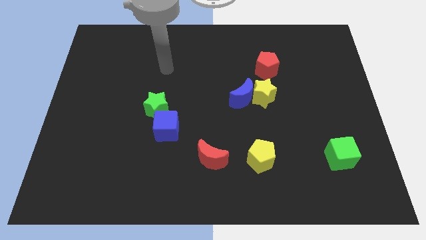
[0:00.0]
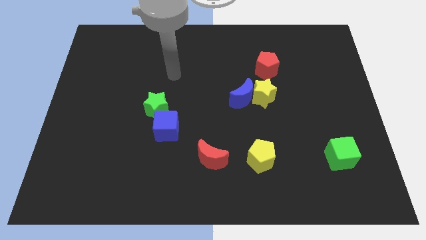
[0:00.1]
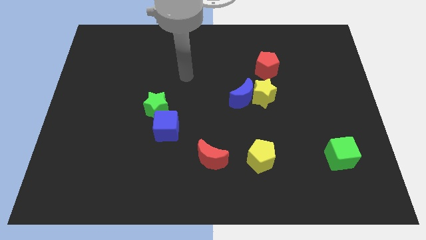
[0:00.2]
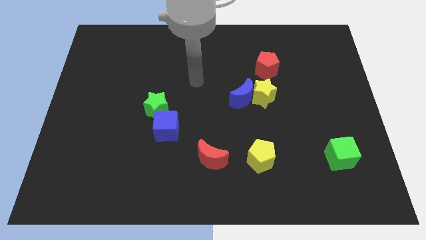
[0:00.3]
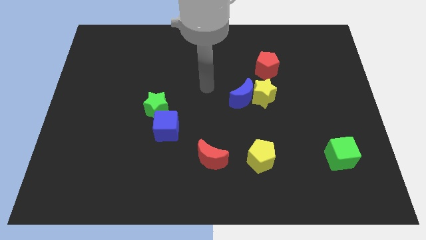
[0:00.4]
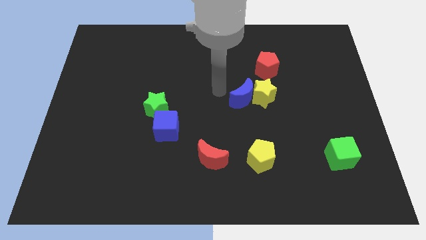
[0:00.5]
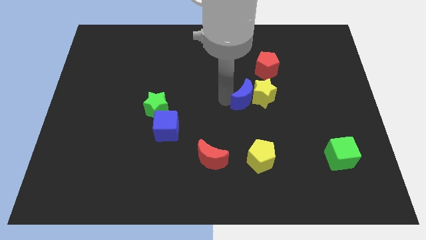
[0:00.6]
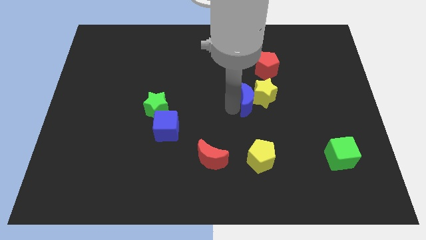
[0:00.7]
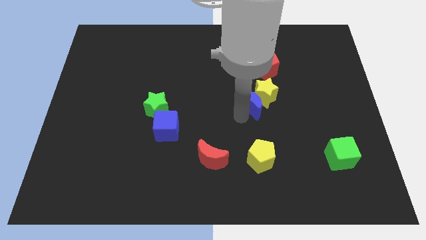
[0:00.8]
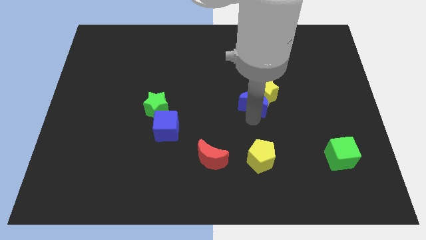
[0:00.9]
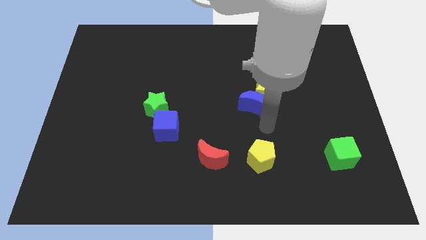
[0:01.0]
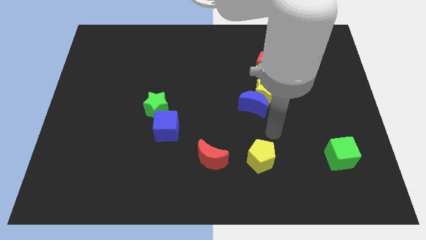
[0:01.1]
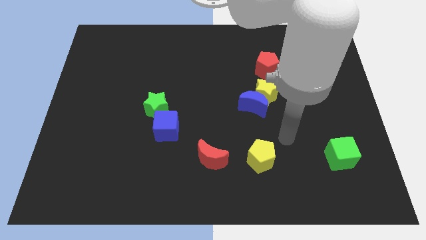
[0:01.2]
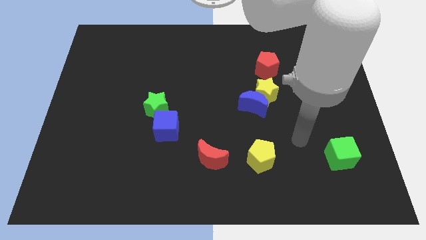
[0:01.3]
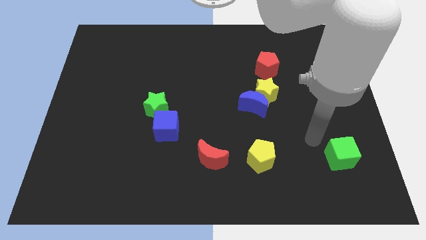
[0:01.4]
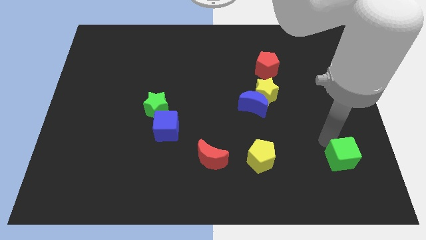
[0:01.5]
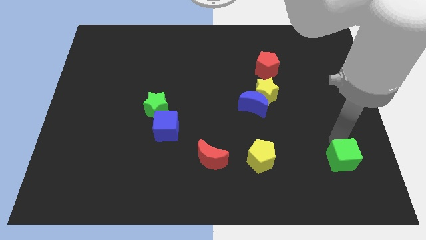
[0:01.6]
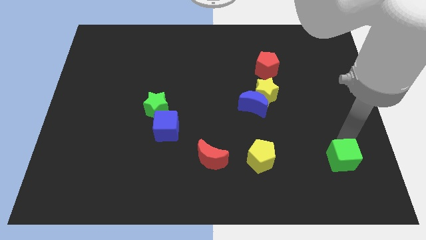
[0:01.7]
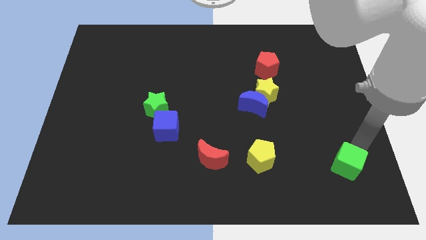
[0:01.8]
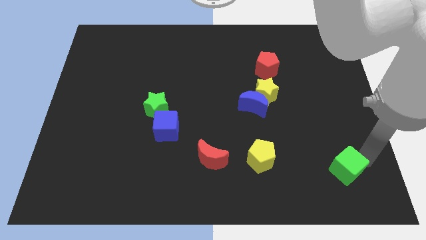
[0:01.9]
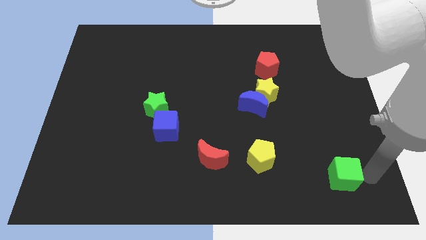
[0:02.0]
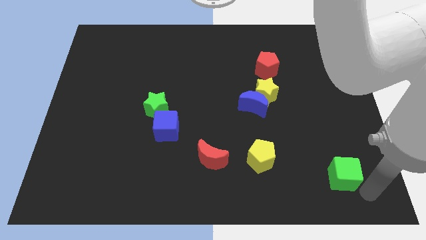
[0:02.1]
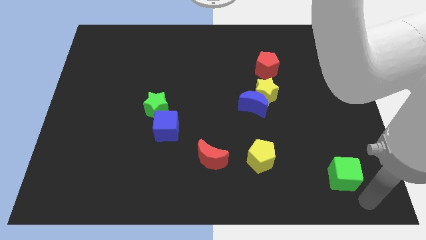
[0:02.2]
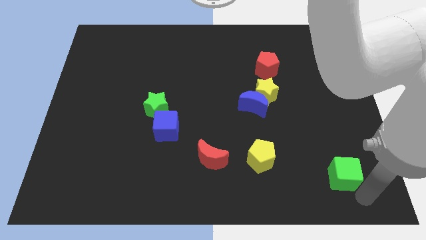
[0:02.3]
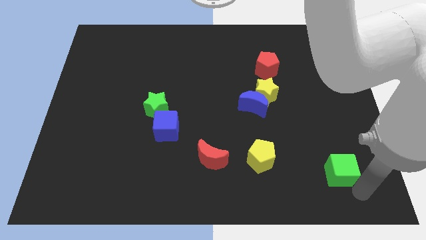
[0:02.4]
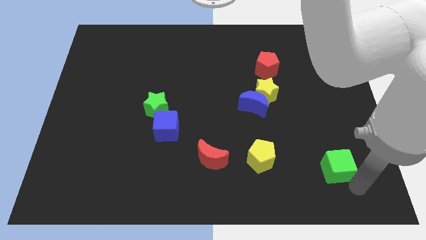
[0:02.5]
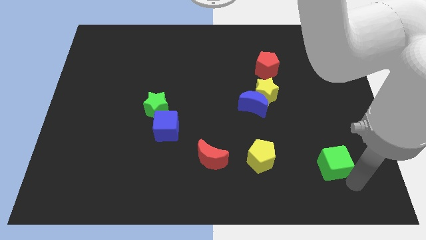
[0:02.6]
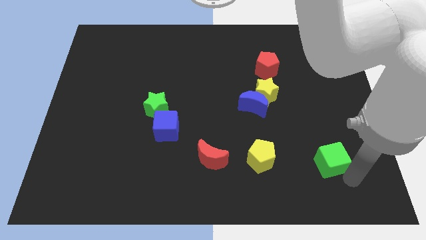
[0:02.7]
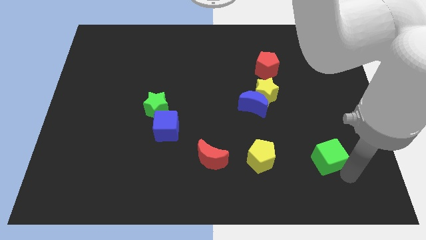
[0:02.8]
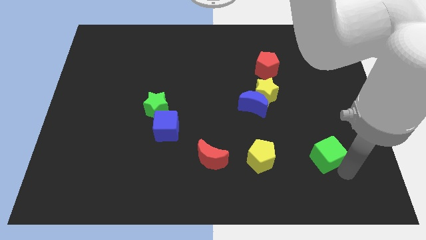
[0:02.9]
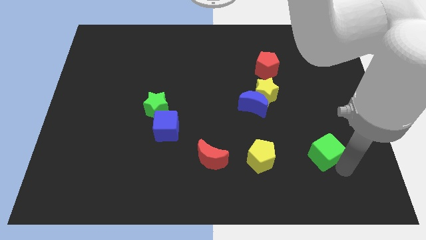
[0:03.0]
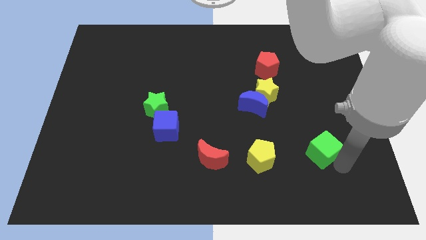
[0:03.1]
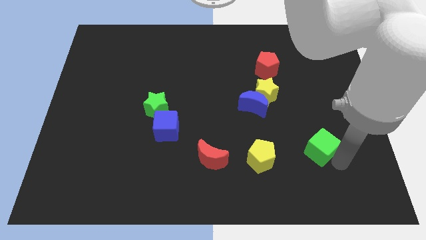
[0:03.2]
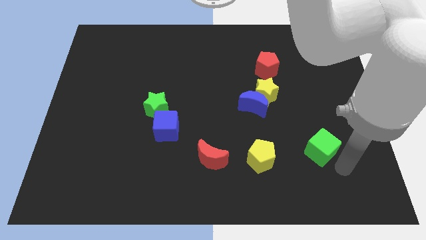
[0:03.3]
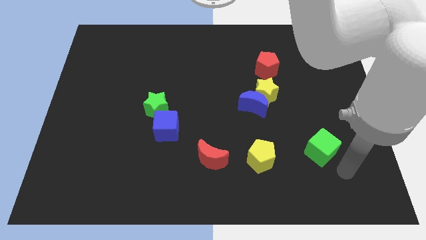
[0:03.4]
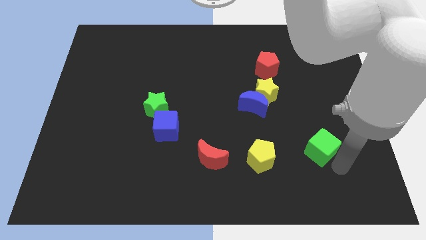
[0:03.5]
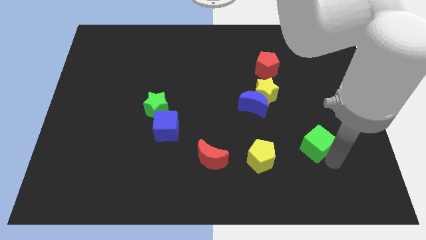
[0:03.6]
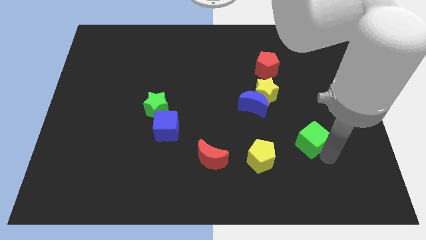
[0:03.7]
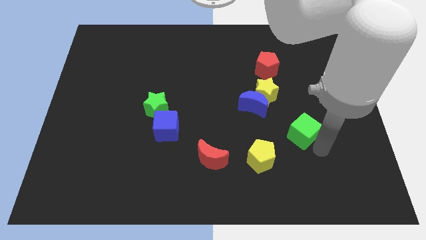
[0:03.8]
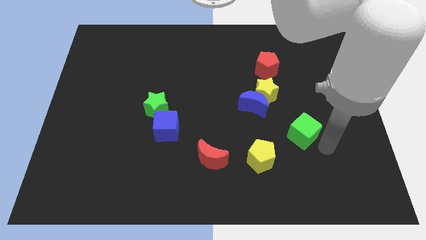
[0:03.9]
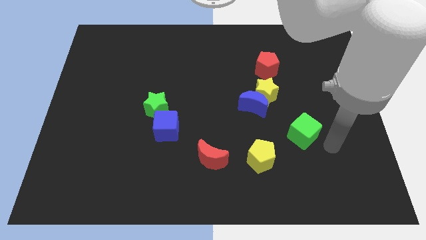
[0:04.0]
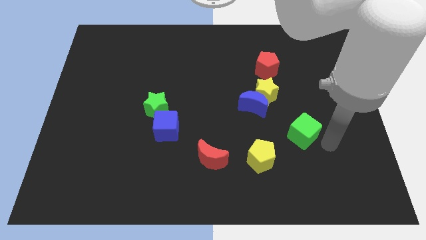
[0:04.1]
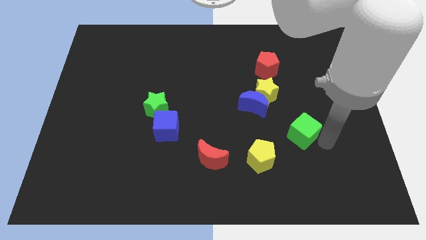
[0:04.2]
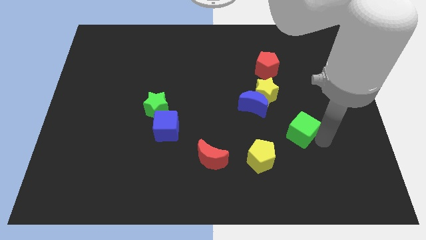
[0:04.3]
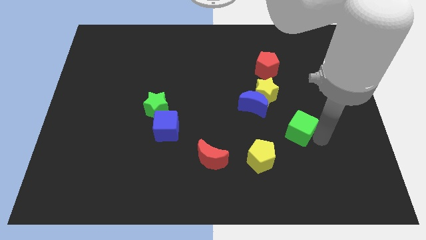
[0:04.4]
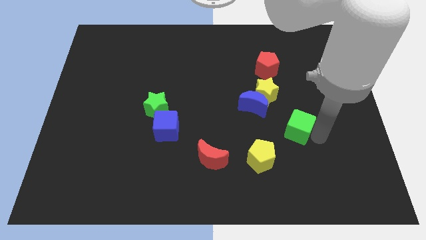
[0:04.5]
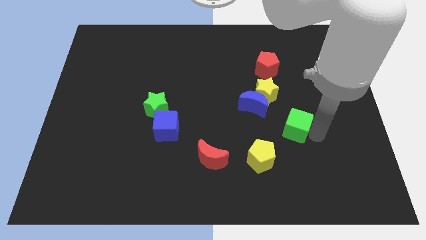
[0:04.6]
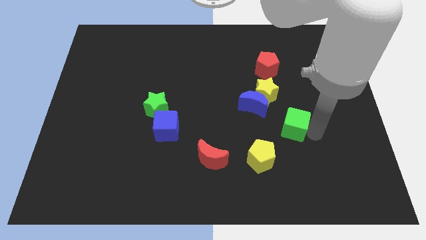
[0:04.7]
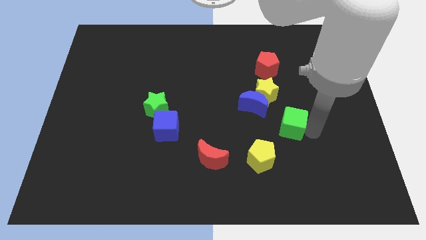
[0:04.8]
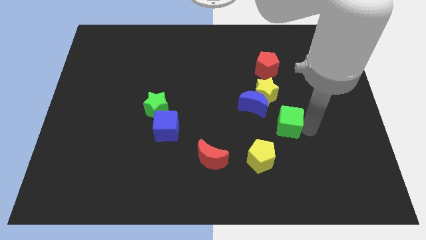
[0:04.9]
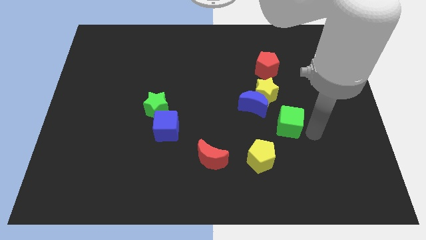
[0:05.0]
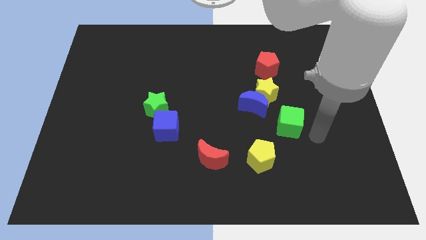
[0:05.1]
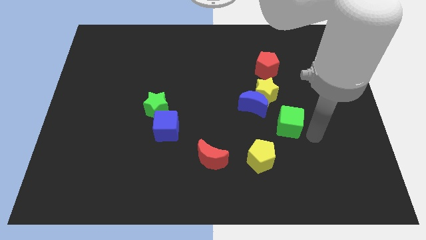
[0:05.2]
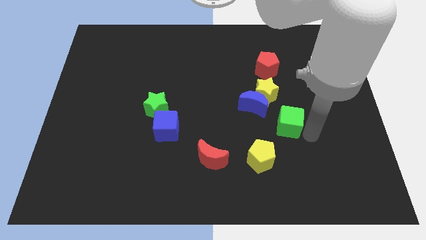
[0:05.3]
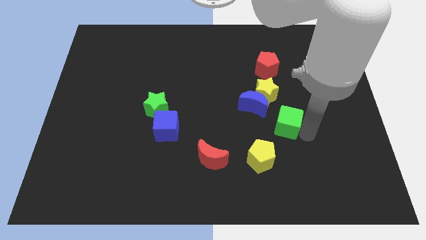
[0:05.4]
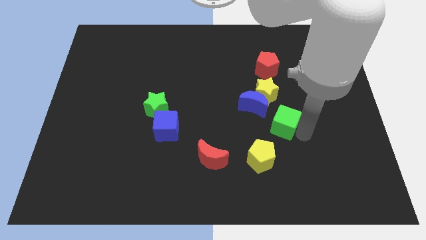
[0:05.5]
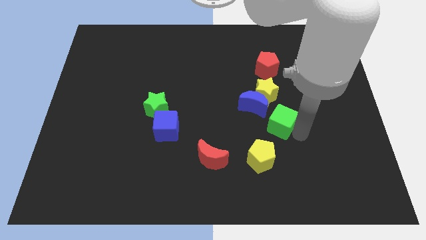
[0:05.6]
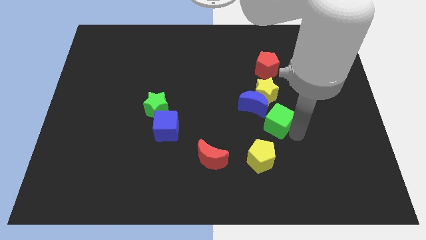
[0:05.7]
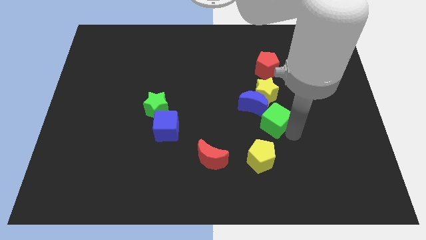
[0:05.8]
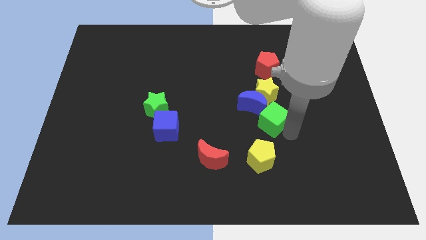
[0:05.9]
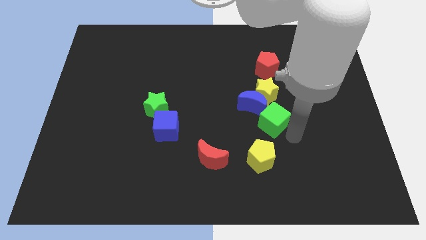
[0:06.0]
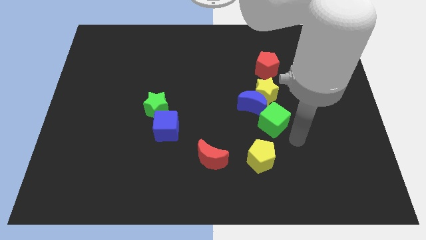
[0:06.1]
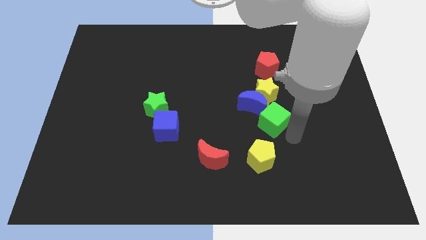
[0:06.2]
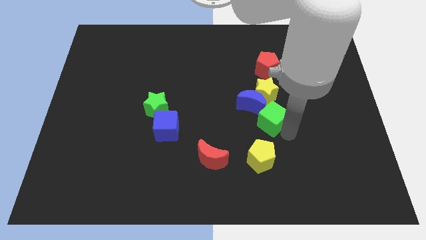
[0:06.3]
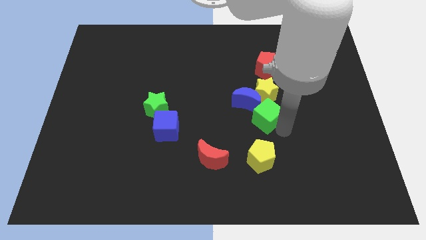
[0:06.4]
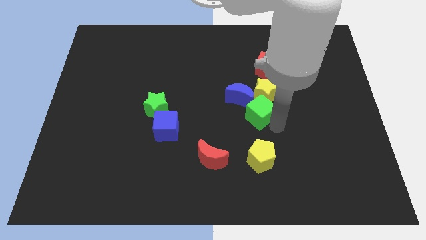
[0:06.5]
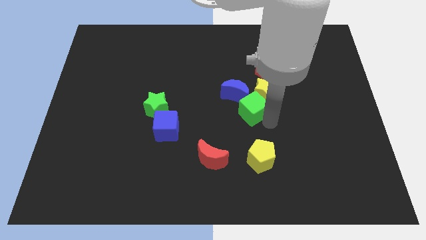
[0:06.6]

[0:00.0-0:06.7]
move the green cube towards the blue moon

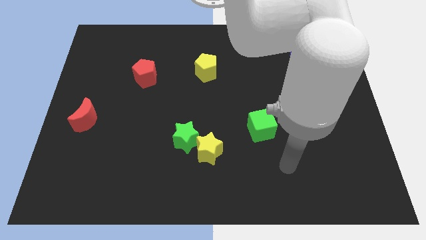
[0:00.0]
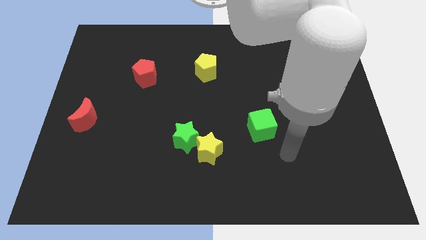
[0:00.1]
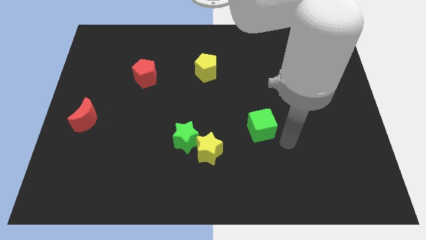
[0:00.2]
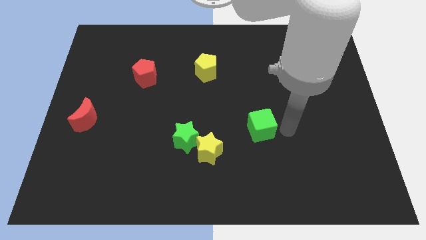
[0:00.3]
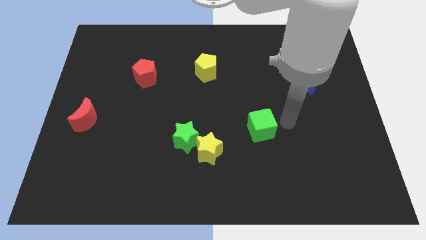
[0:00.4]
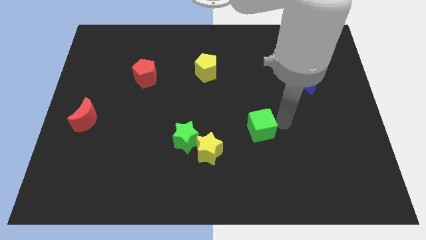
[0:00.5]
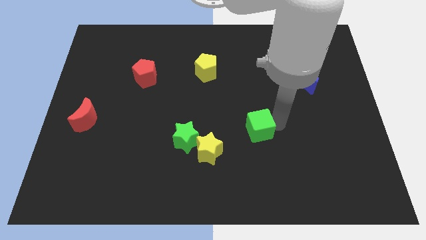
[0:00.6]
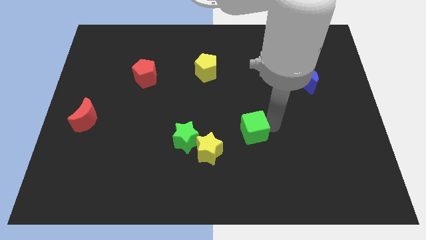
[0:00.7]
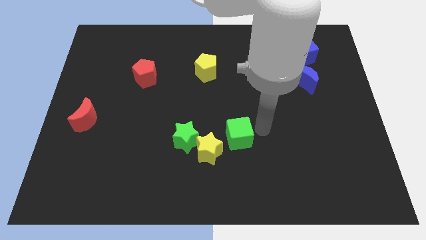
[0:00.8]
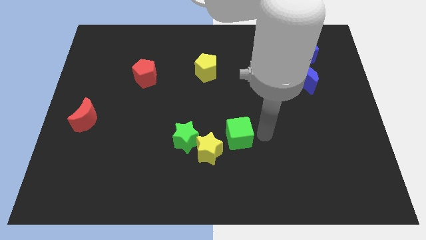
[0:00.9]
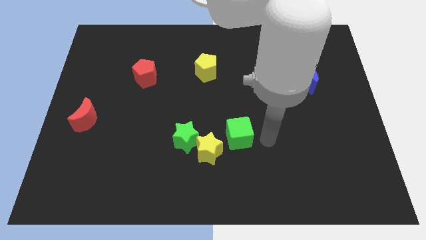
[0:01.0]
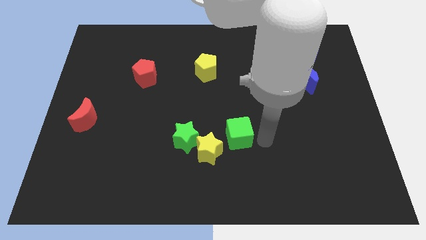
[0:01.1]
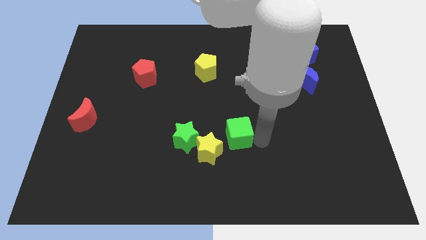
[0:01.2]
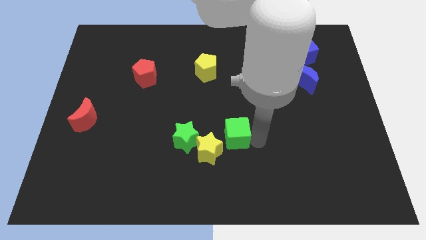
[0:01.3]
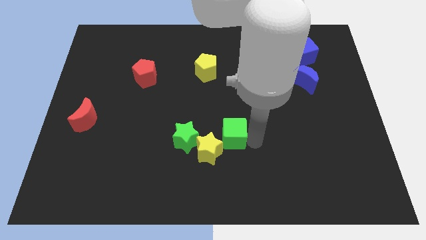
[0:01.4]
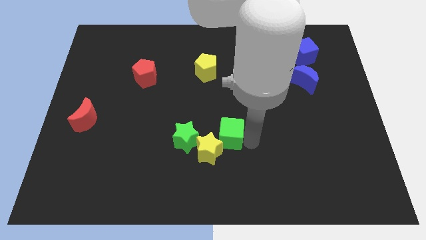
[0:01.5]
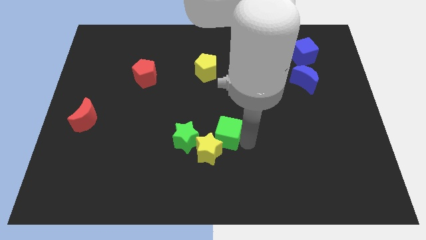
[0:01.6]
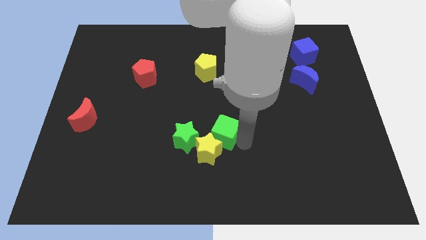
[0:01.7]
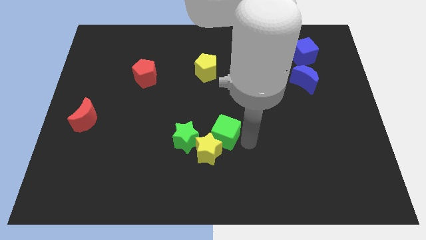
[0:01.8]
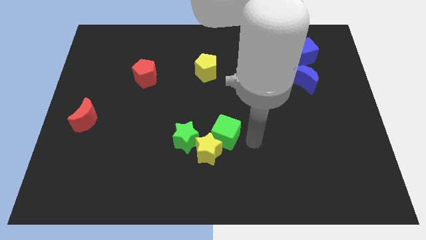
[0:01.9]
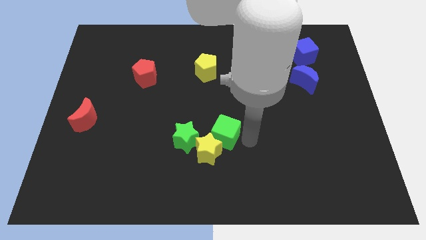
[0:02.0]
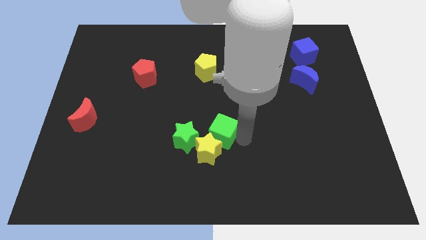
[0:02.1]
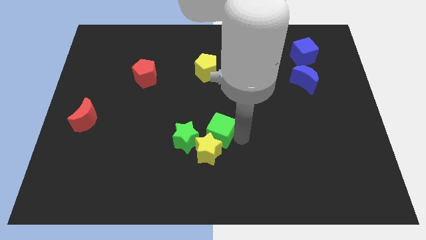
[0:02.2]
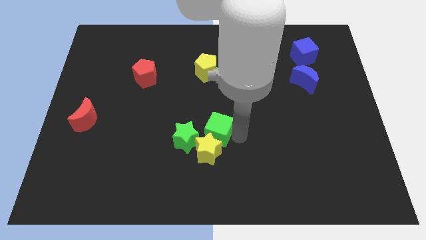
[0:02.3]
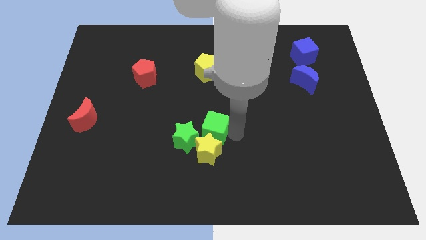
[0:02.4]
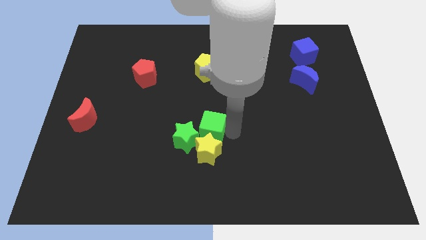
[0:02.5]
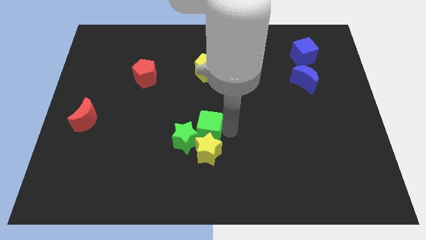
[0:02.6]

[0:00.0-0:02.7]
move the green cube towards the green star
